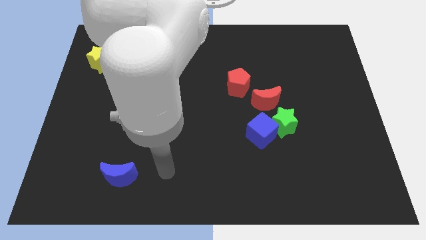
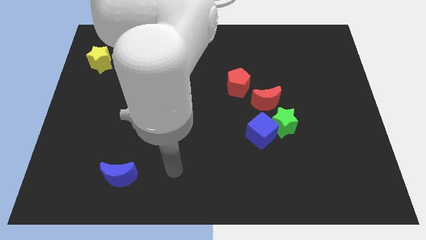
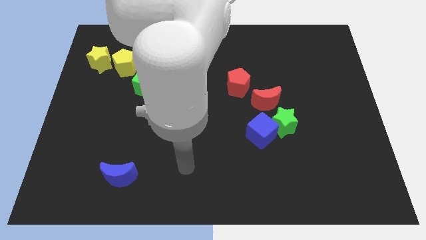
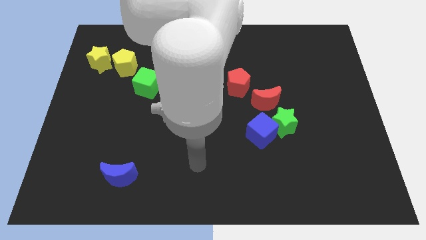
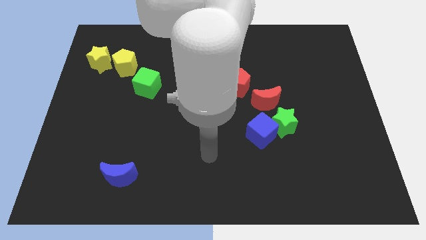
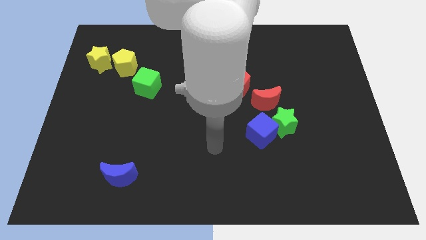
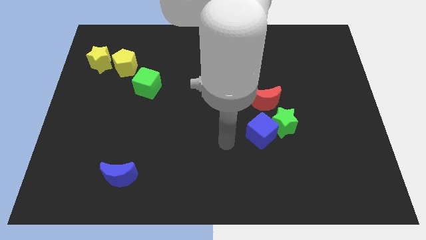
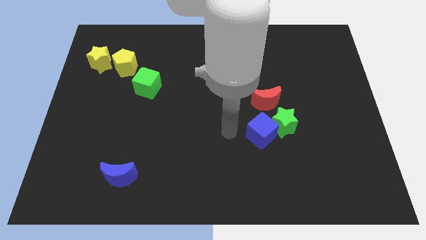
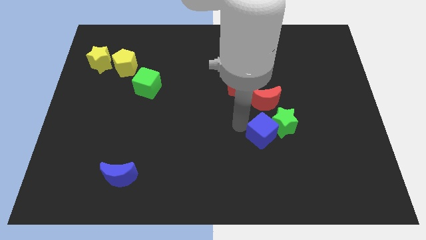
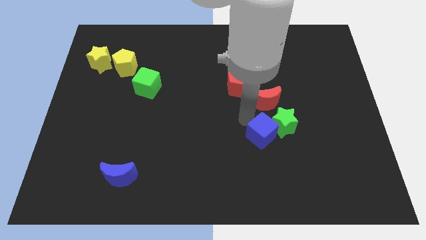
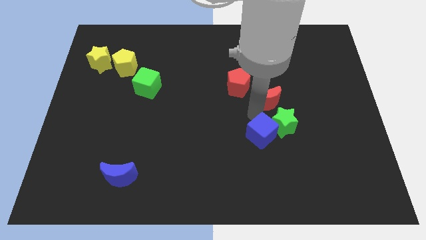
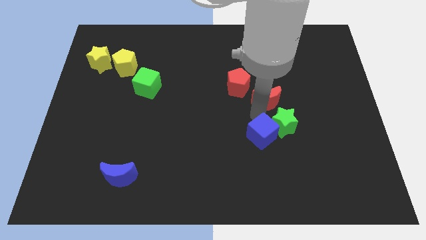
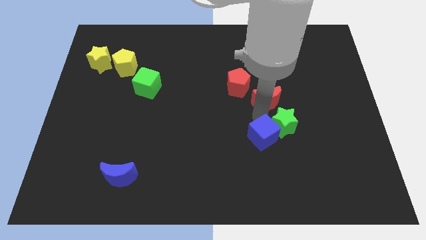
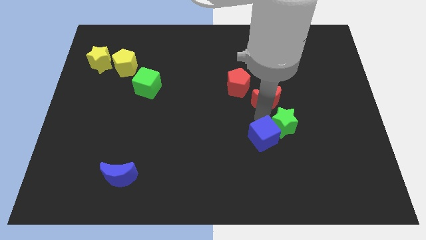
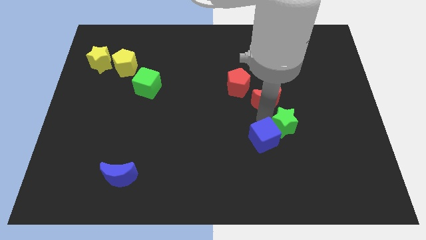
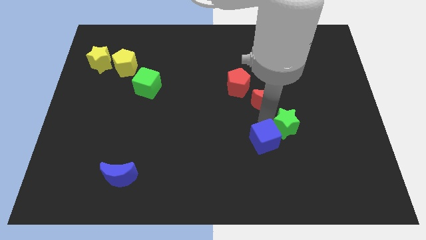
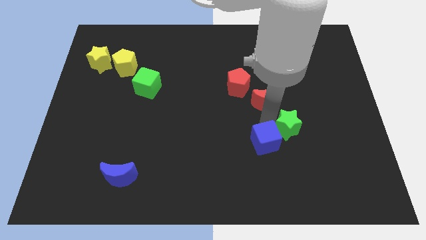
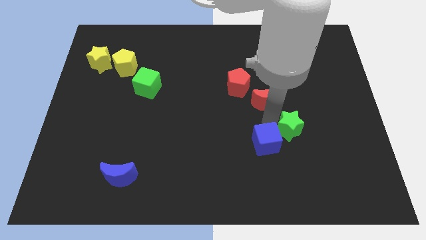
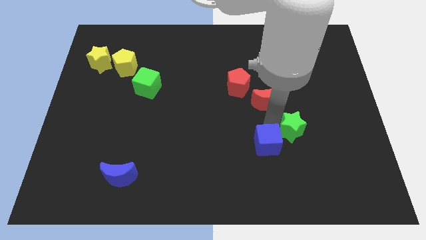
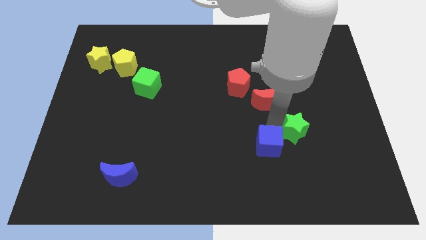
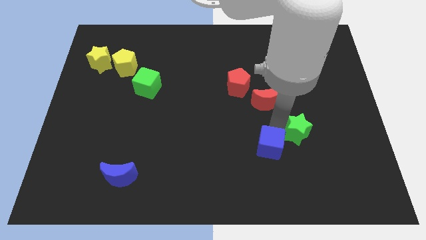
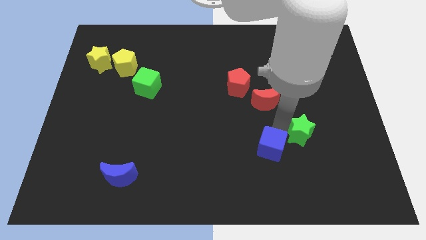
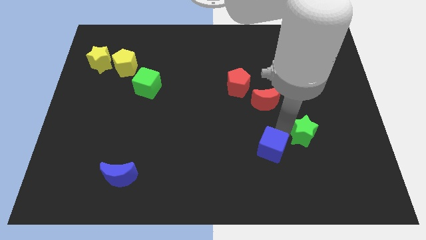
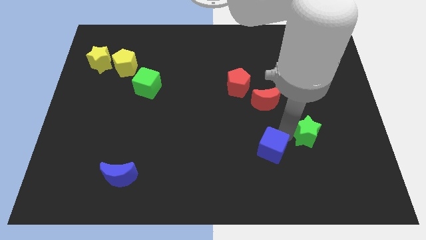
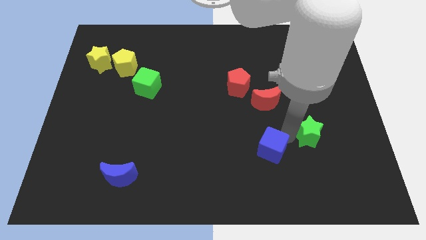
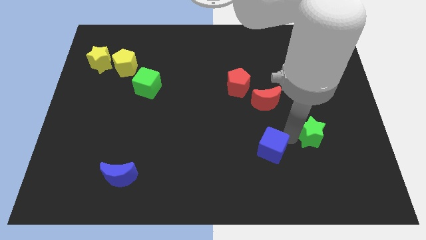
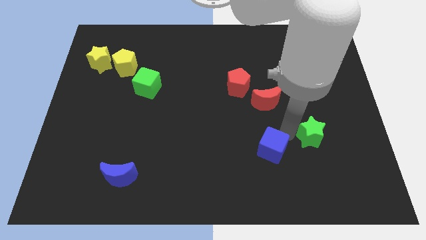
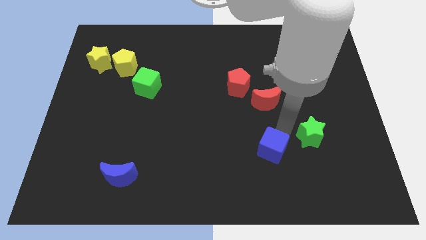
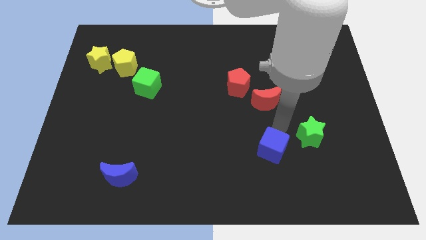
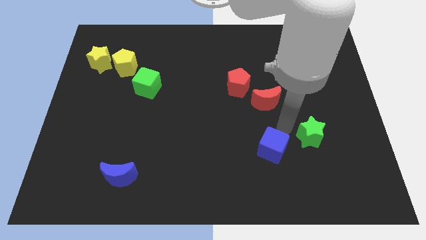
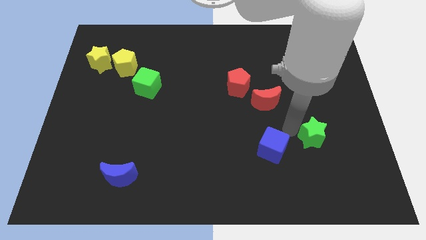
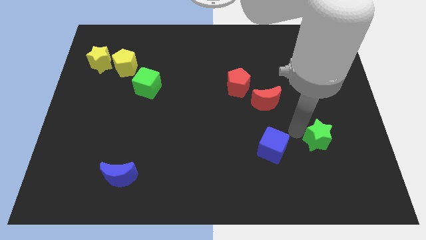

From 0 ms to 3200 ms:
separate the green star from the blue cube and red moon

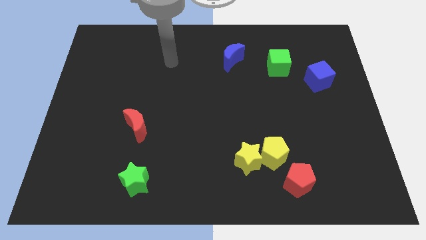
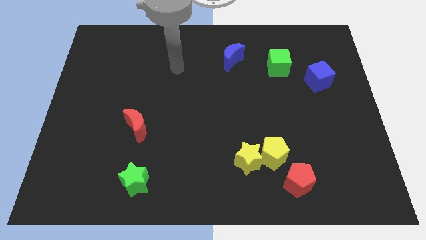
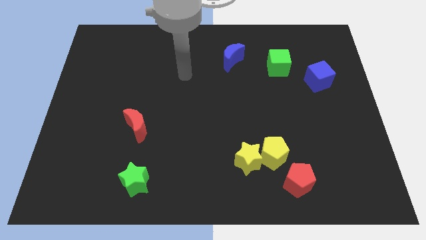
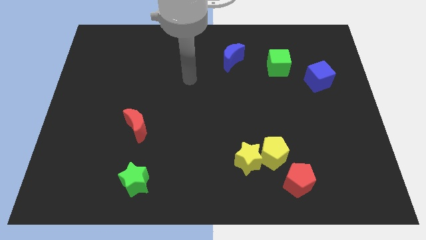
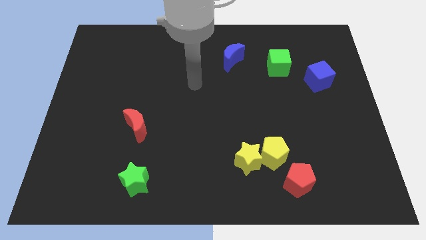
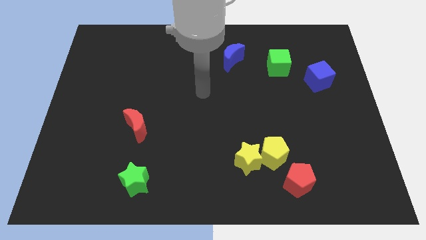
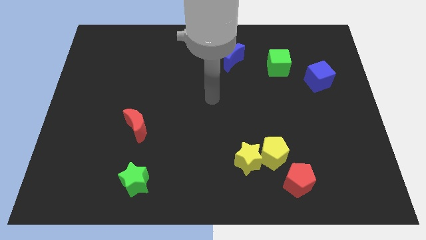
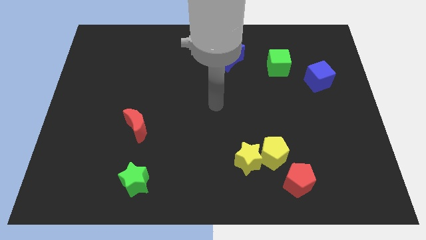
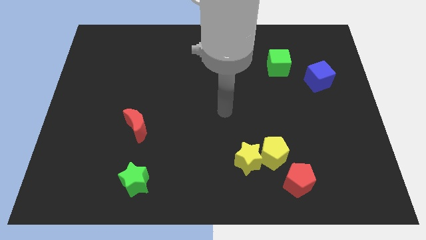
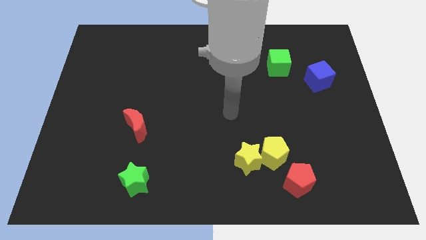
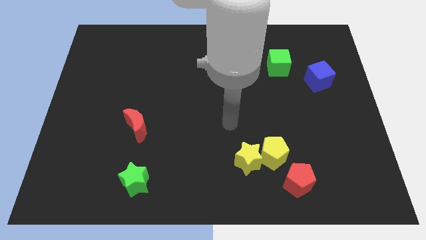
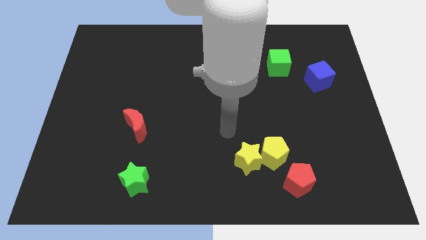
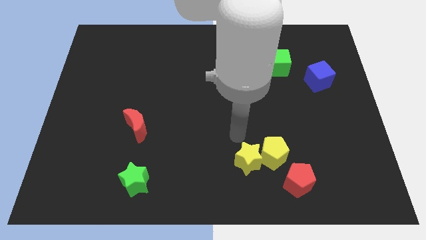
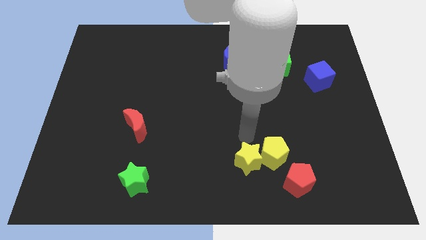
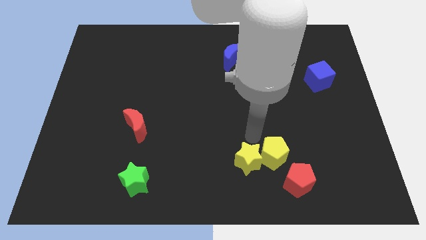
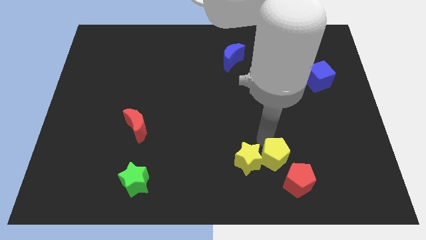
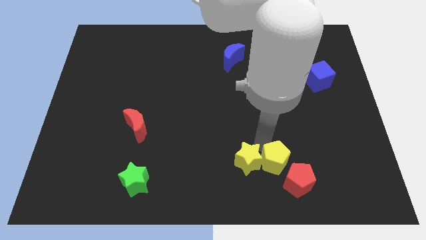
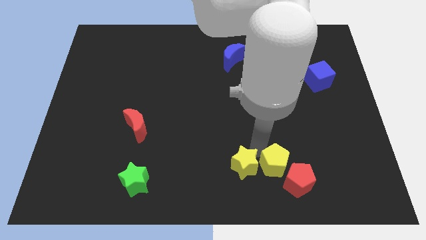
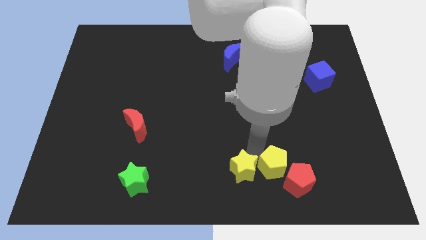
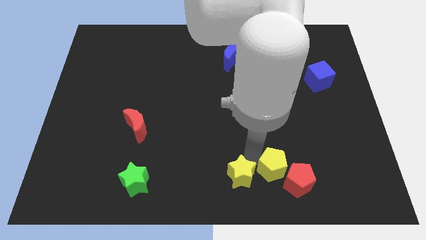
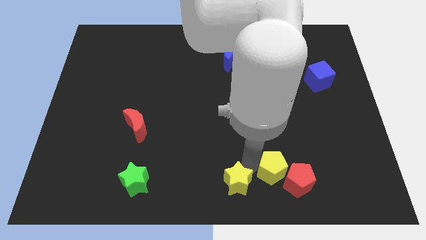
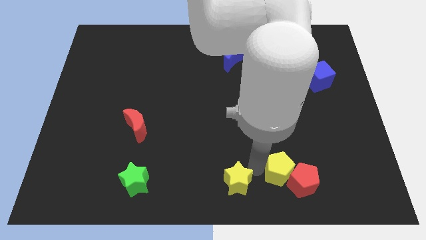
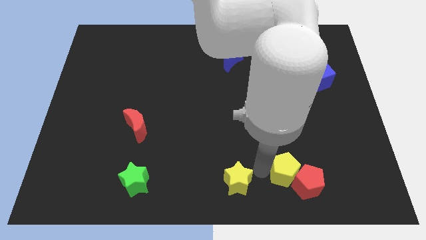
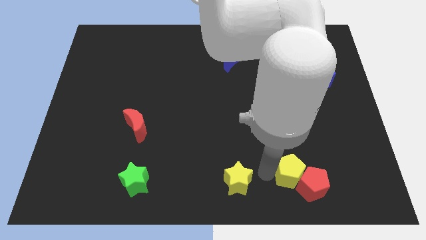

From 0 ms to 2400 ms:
separate the yellow star from the yellow pentagon

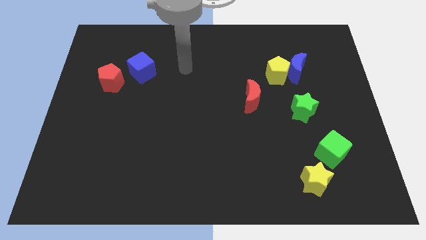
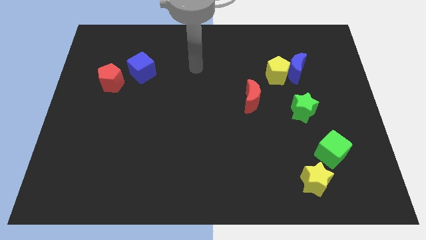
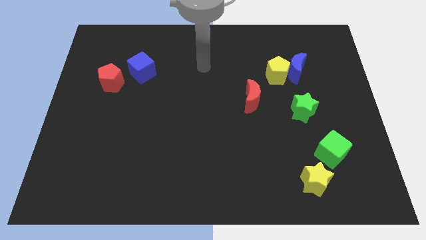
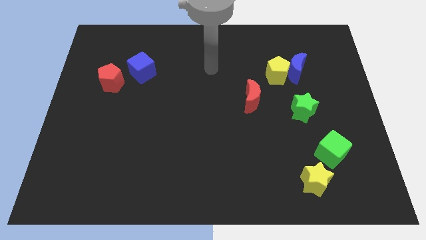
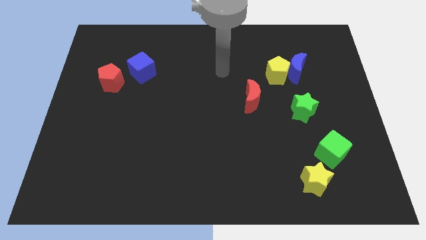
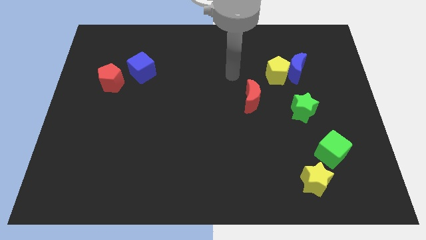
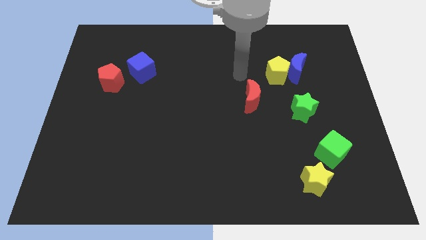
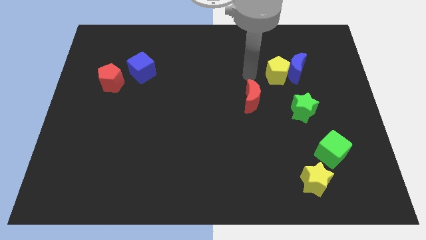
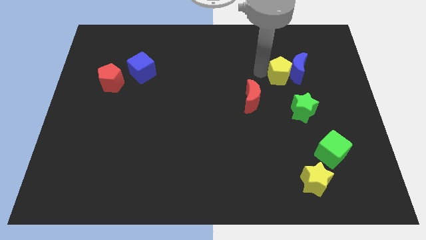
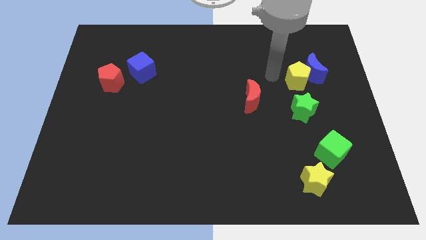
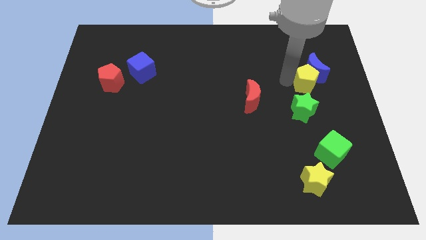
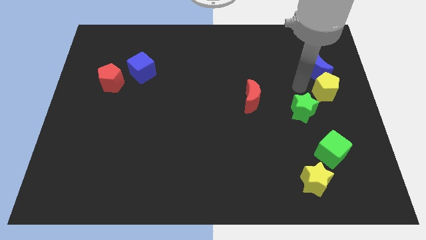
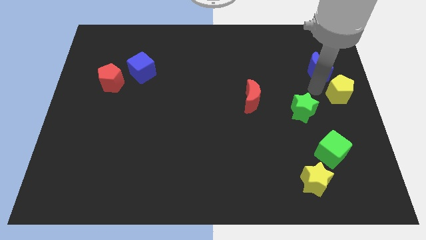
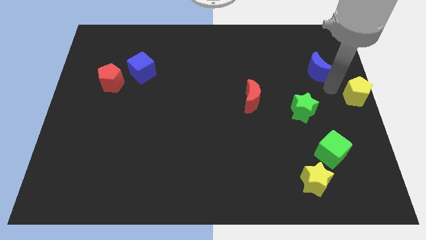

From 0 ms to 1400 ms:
pull the blue moon apart from the yellow pentagon

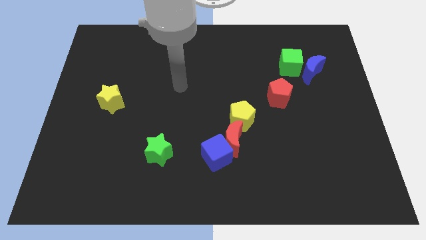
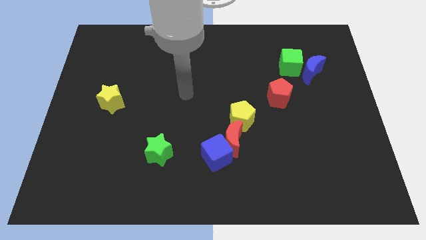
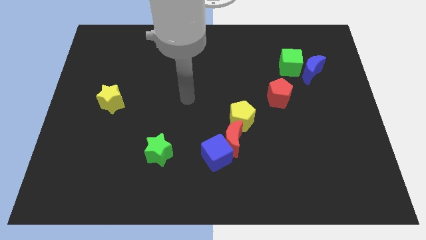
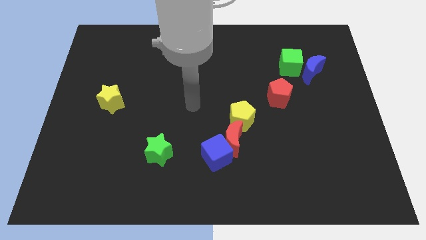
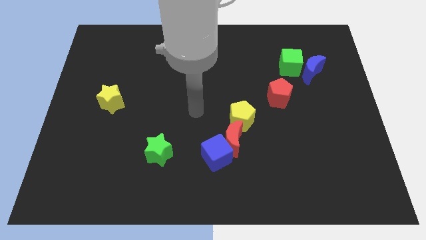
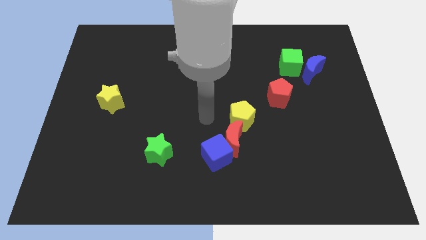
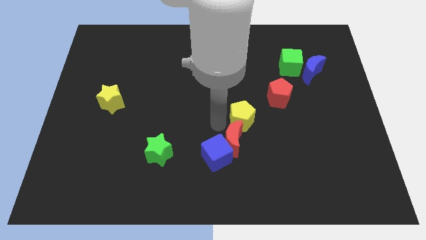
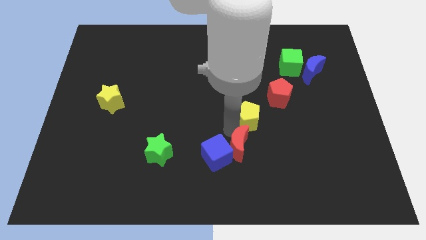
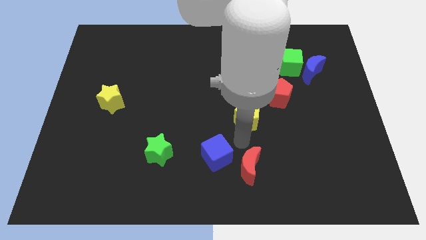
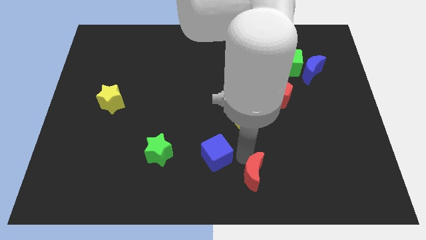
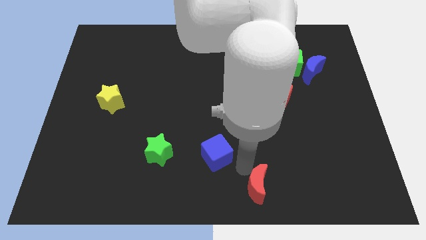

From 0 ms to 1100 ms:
move the blue cube away from the red moon

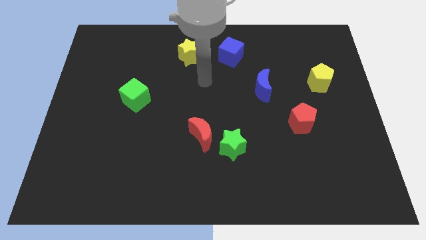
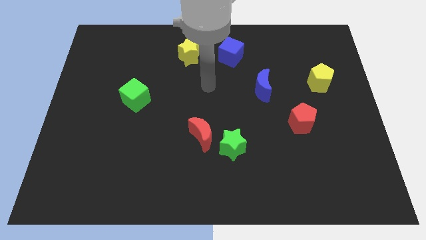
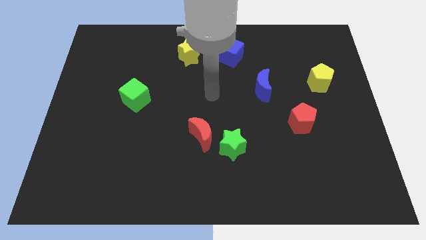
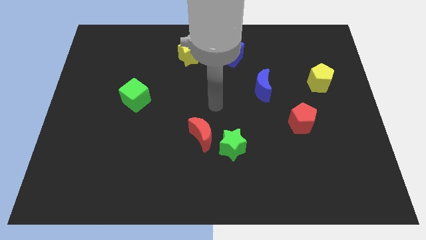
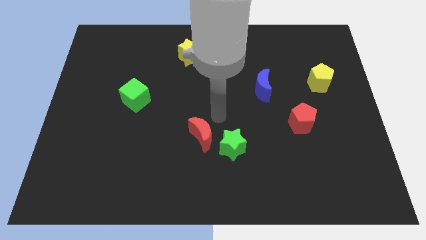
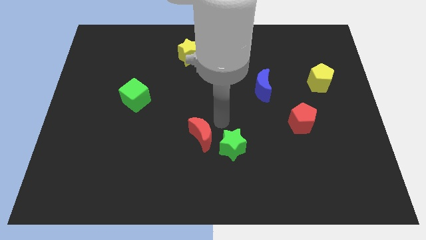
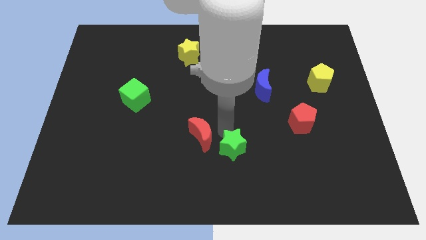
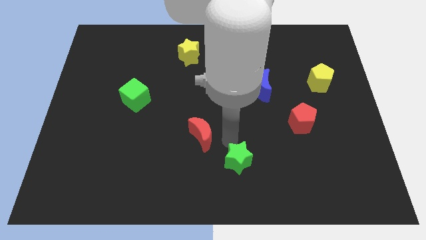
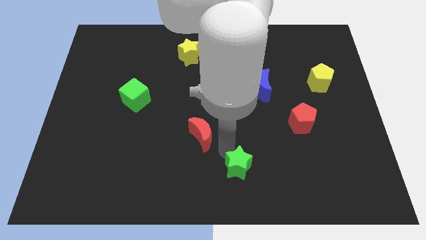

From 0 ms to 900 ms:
separate the red moon from the green star

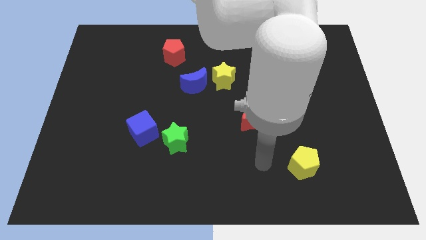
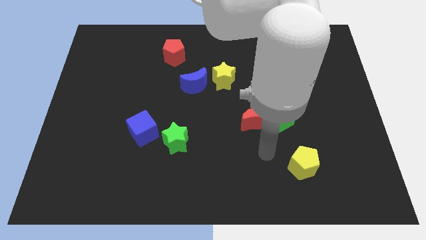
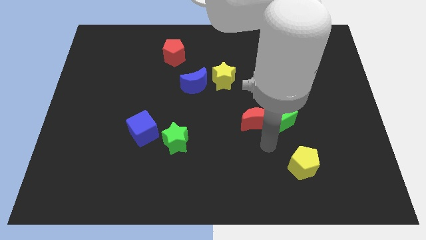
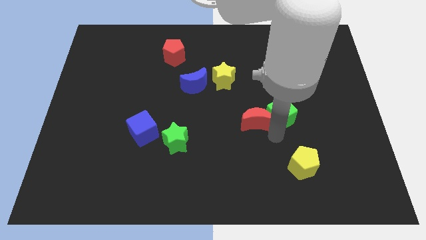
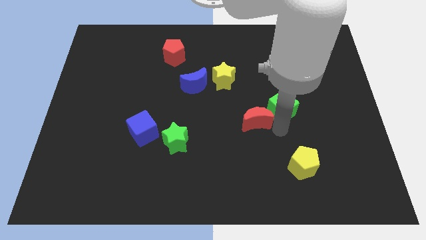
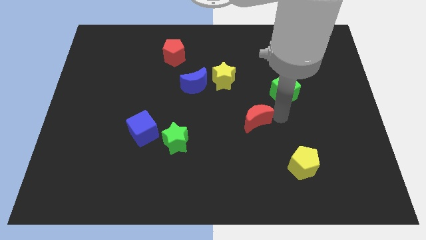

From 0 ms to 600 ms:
pull the red moon apart from the green cube
